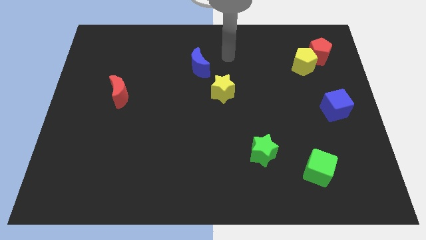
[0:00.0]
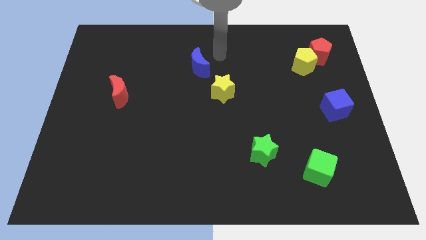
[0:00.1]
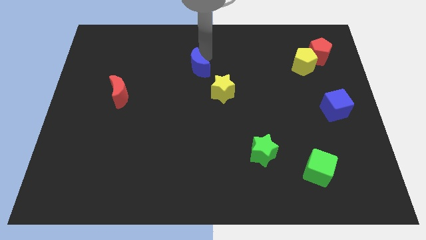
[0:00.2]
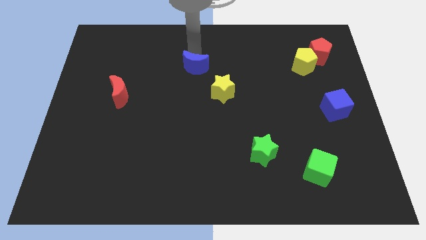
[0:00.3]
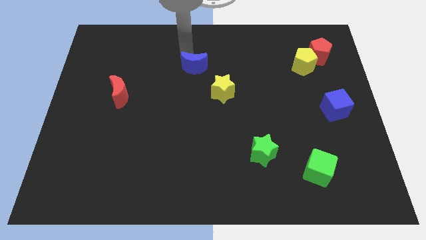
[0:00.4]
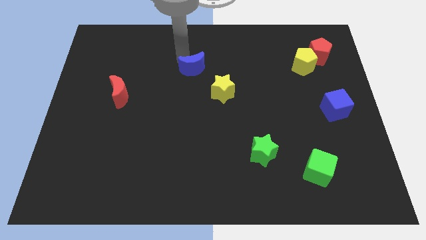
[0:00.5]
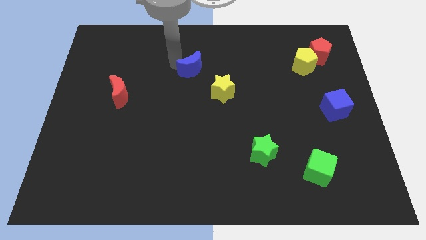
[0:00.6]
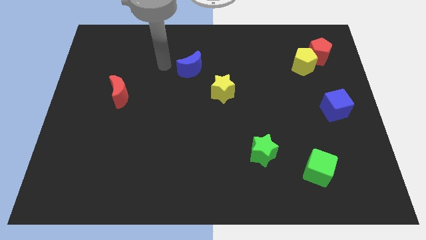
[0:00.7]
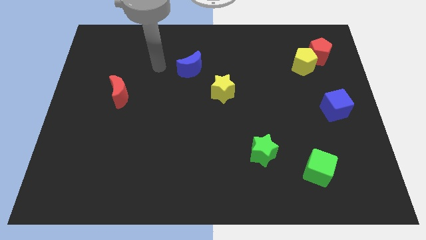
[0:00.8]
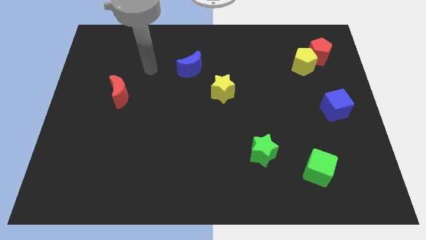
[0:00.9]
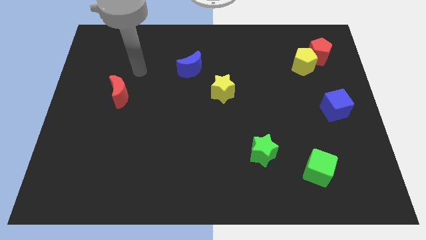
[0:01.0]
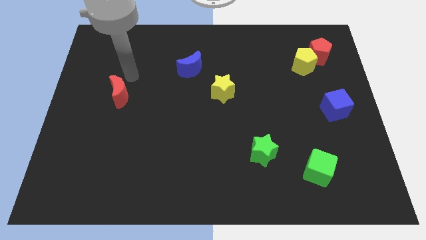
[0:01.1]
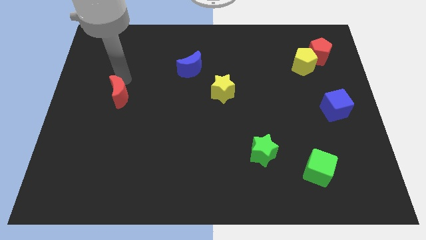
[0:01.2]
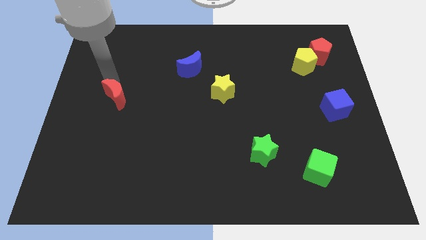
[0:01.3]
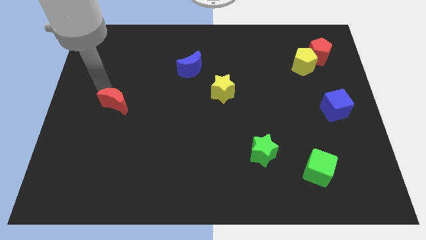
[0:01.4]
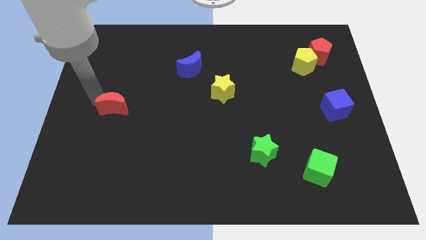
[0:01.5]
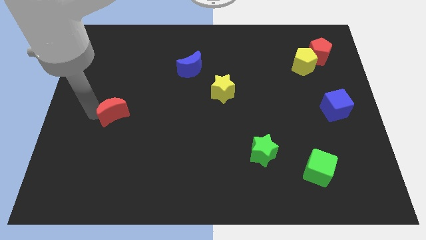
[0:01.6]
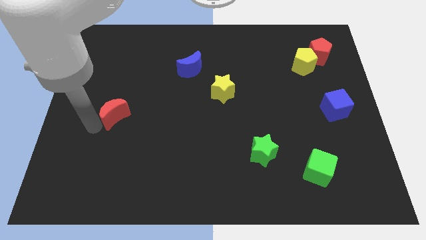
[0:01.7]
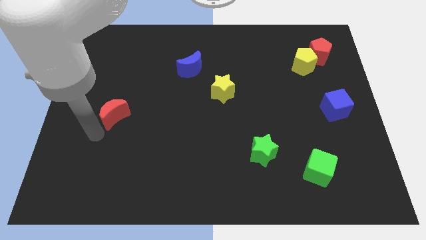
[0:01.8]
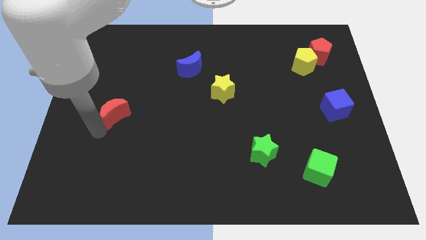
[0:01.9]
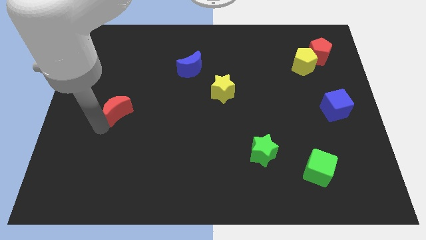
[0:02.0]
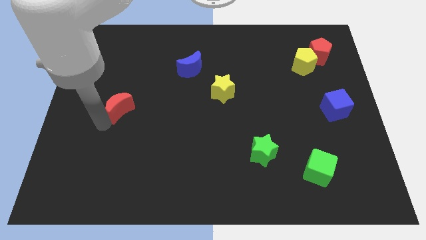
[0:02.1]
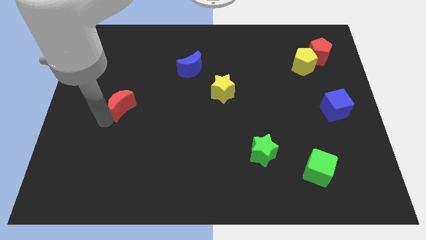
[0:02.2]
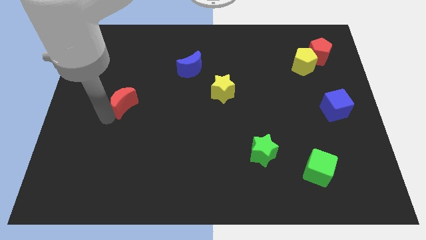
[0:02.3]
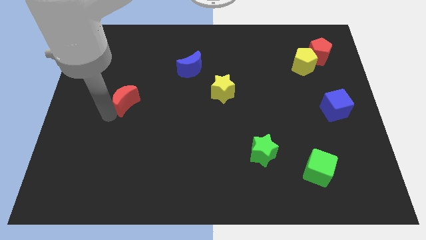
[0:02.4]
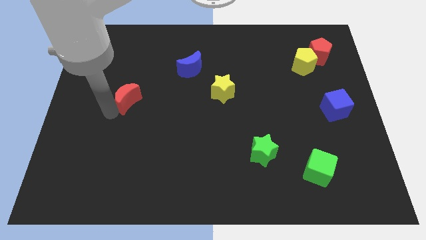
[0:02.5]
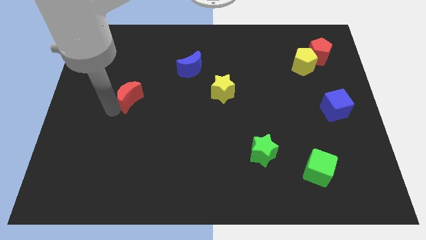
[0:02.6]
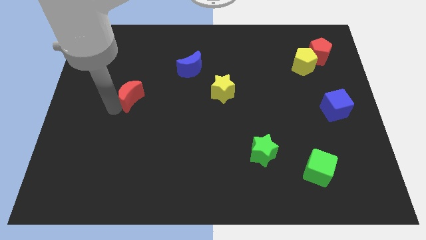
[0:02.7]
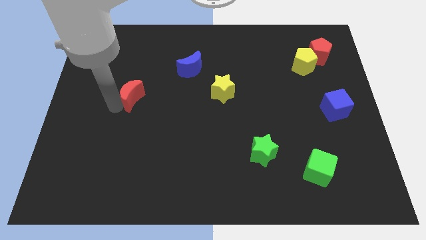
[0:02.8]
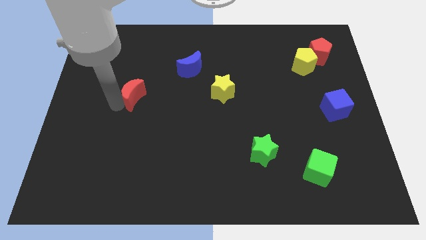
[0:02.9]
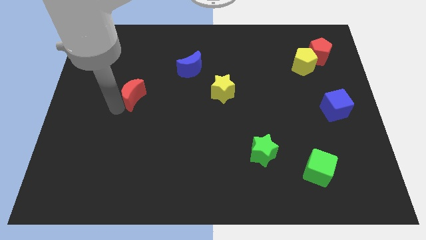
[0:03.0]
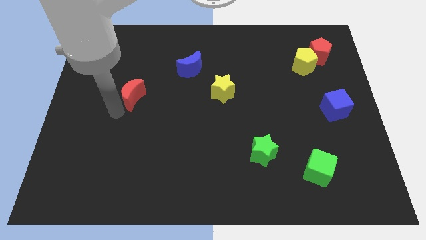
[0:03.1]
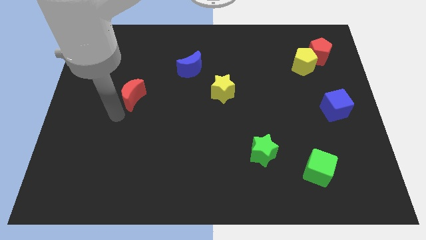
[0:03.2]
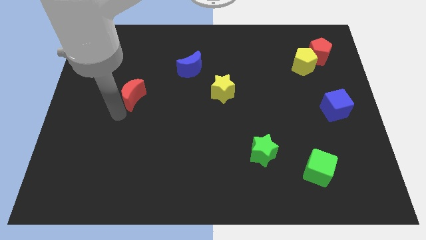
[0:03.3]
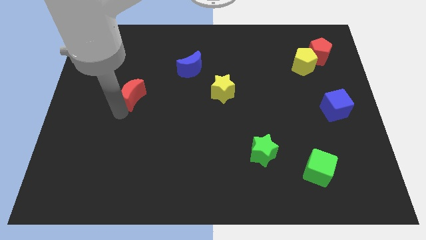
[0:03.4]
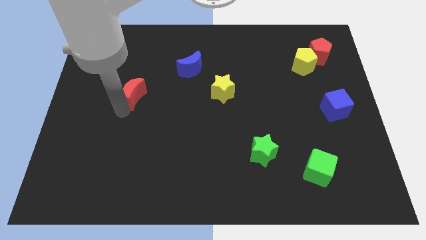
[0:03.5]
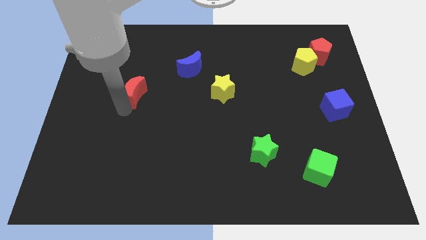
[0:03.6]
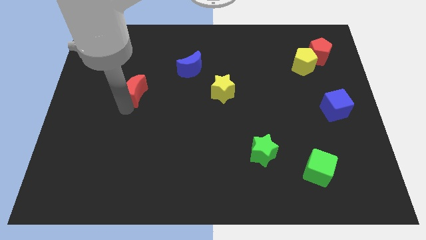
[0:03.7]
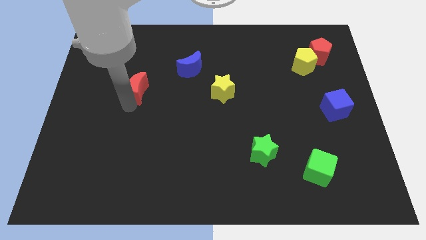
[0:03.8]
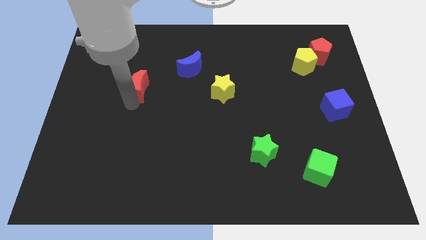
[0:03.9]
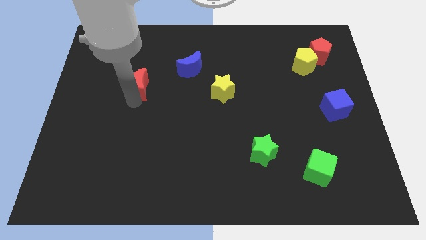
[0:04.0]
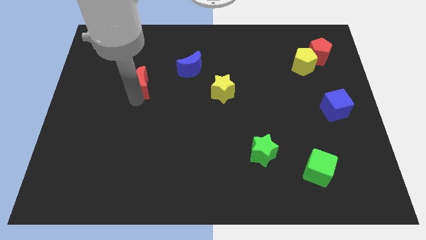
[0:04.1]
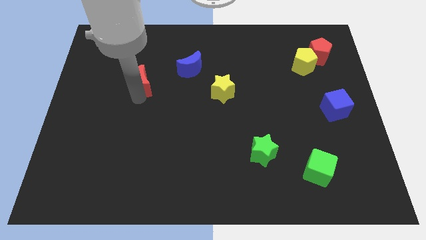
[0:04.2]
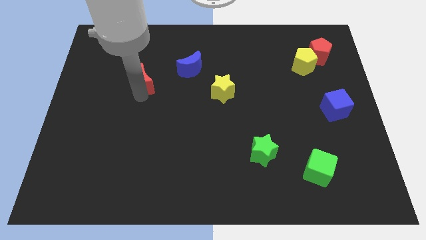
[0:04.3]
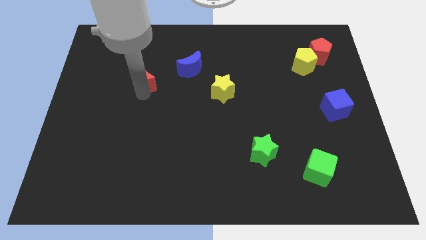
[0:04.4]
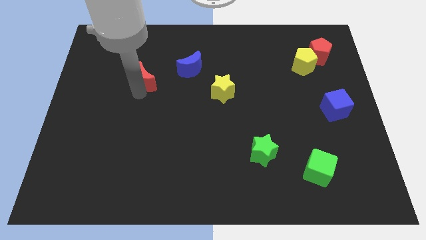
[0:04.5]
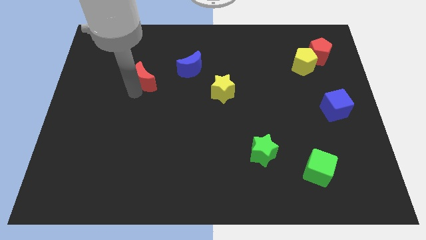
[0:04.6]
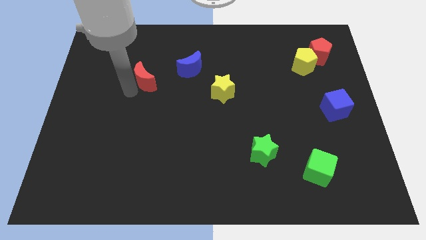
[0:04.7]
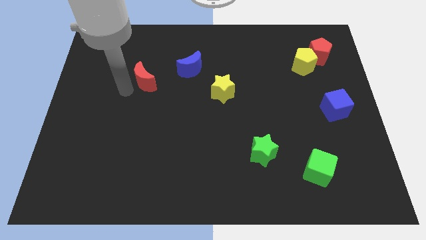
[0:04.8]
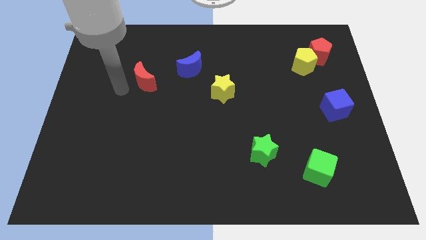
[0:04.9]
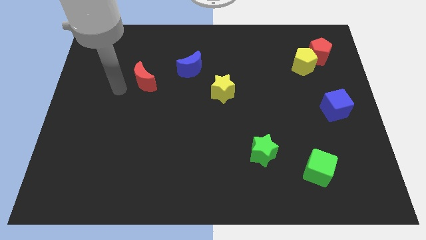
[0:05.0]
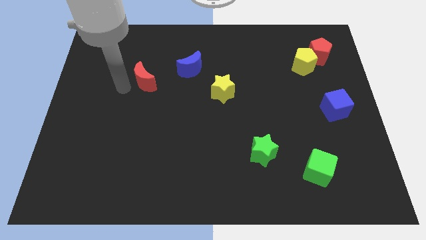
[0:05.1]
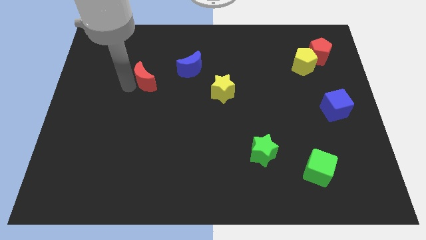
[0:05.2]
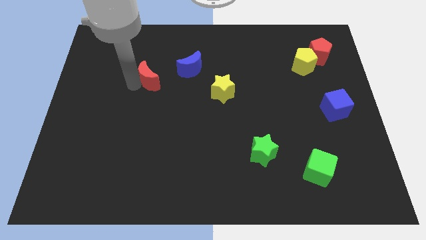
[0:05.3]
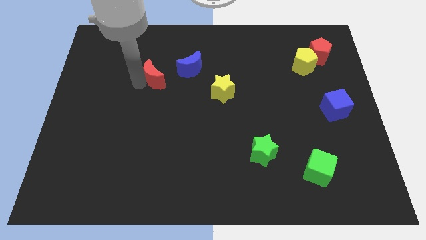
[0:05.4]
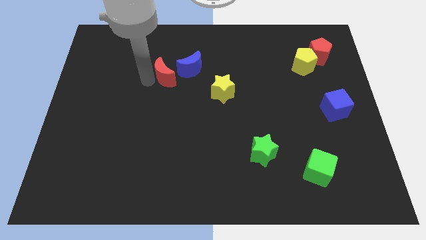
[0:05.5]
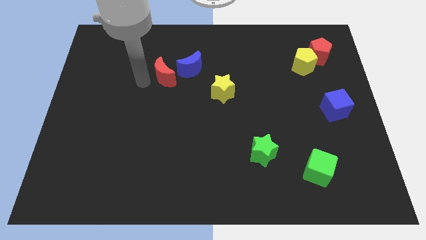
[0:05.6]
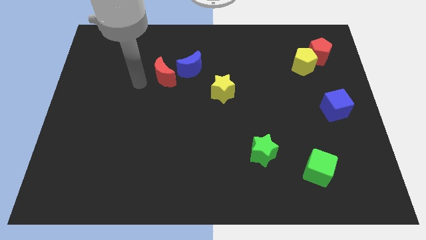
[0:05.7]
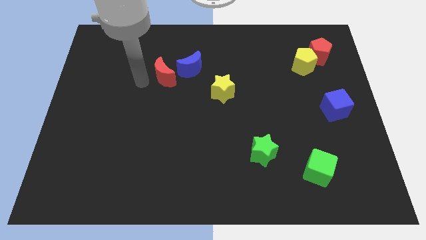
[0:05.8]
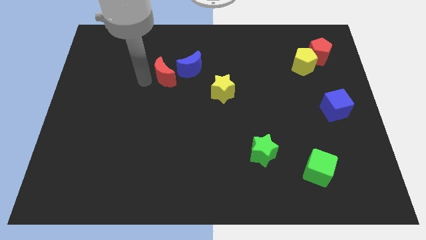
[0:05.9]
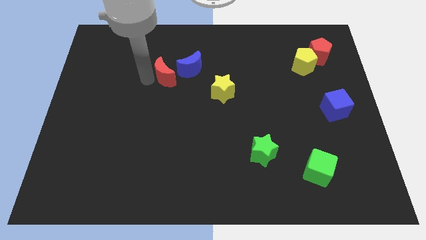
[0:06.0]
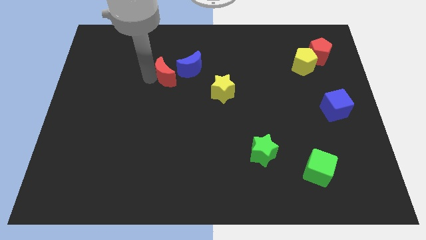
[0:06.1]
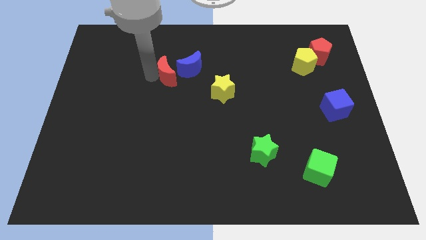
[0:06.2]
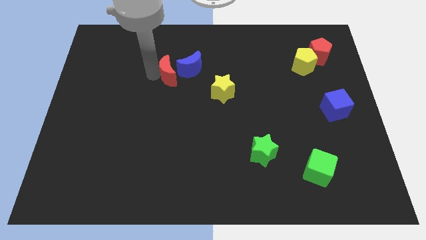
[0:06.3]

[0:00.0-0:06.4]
push the red moon next to the blue moon

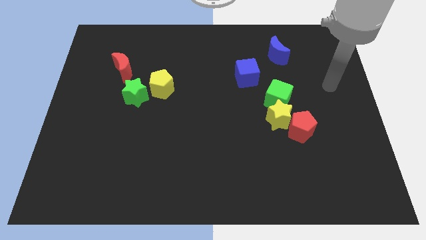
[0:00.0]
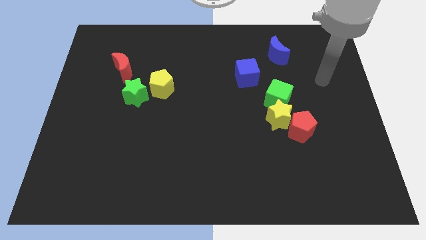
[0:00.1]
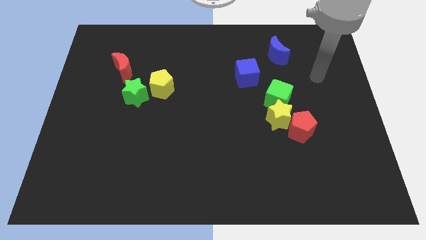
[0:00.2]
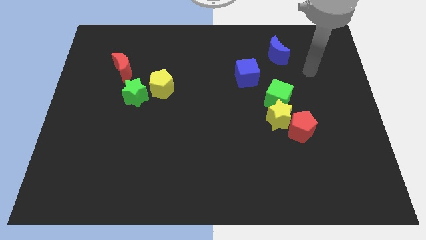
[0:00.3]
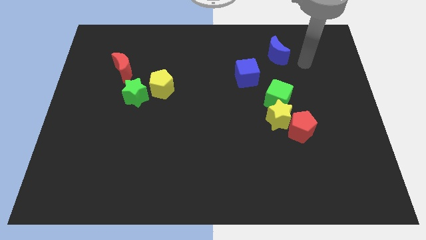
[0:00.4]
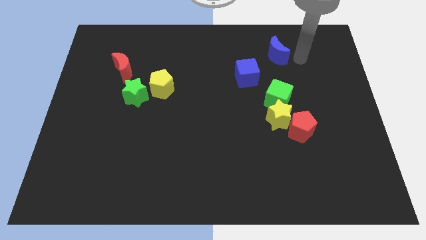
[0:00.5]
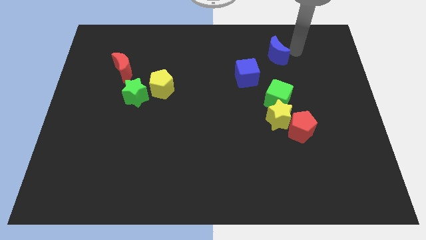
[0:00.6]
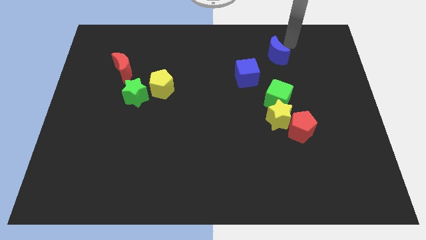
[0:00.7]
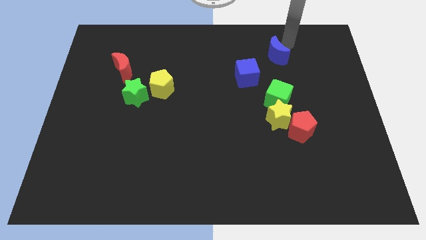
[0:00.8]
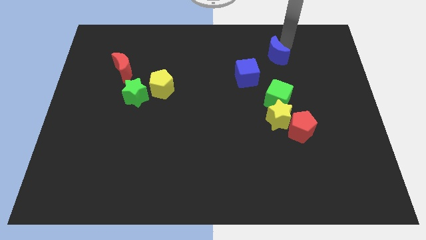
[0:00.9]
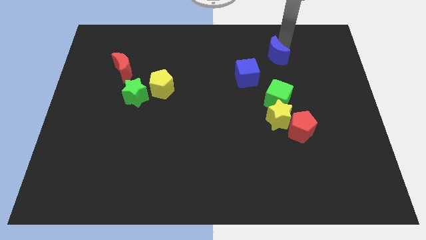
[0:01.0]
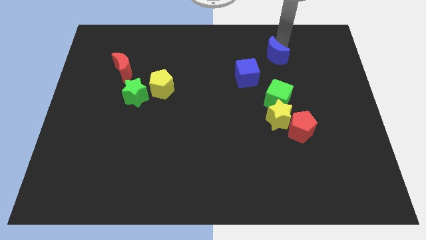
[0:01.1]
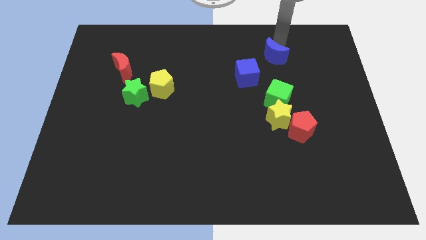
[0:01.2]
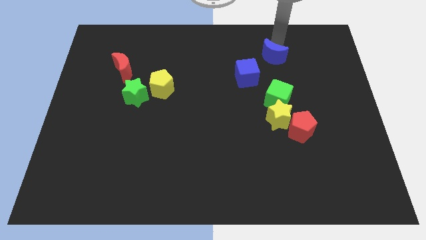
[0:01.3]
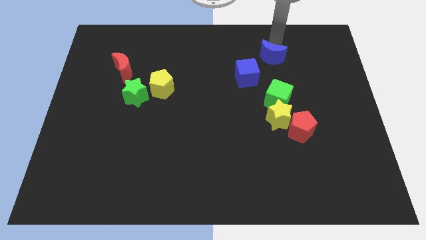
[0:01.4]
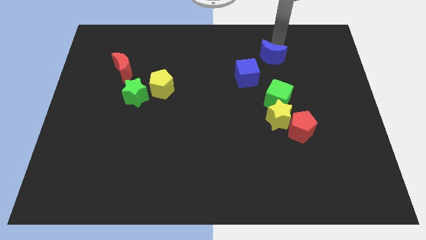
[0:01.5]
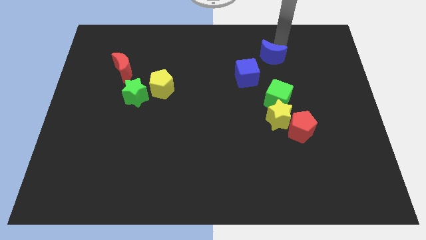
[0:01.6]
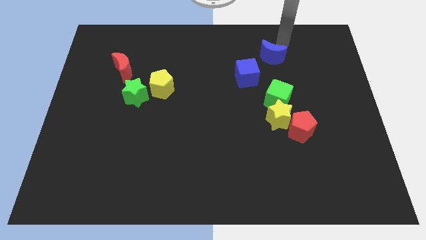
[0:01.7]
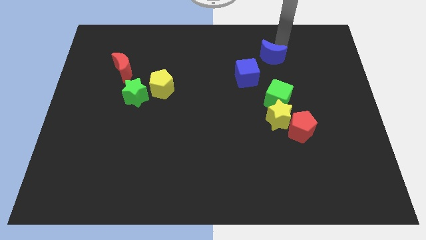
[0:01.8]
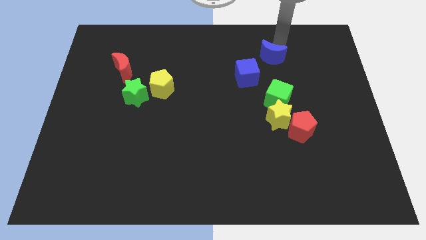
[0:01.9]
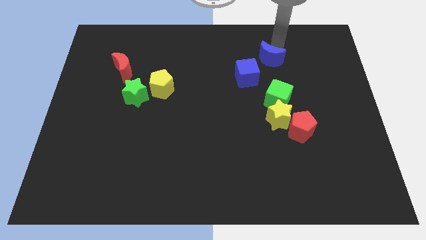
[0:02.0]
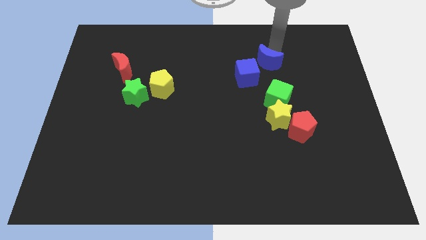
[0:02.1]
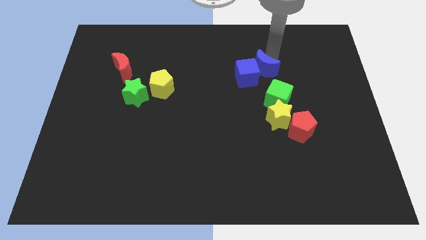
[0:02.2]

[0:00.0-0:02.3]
move the blue moon next to the blue cube
